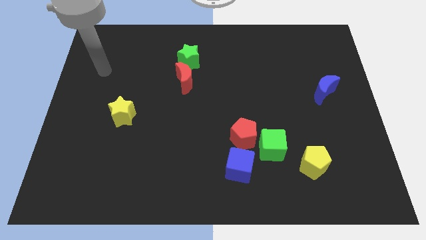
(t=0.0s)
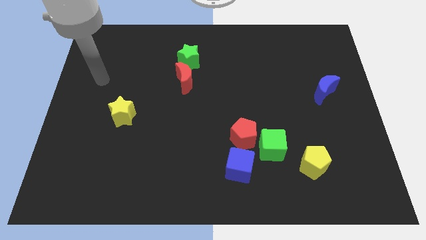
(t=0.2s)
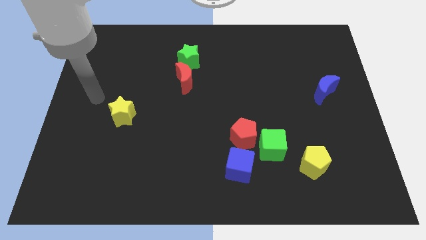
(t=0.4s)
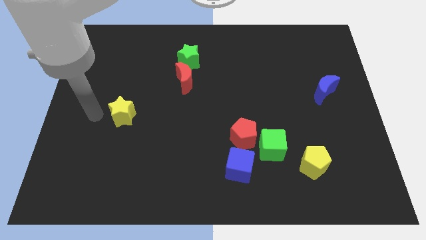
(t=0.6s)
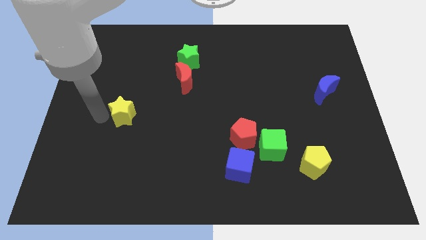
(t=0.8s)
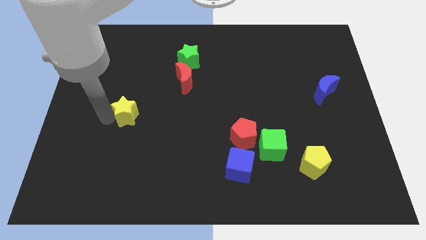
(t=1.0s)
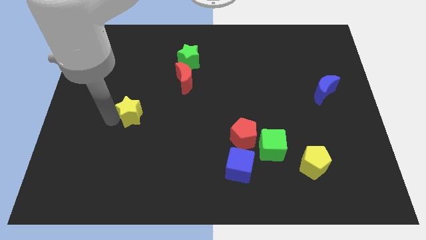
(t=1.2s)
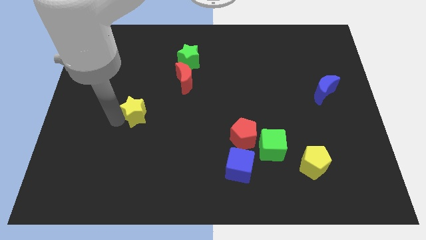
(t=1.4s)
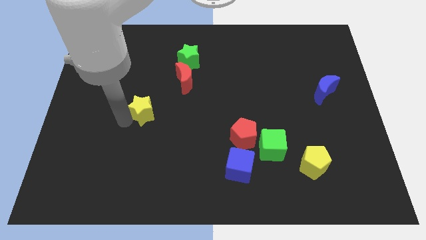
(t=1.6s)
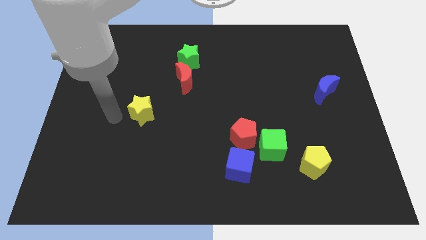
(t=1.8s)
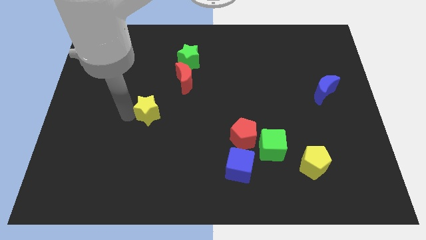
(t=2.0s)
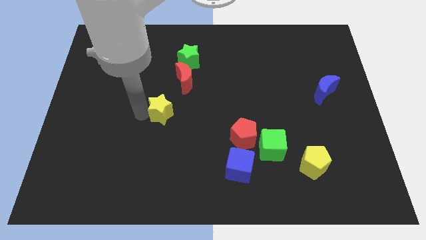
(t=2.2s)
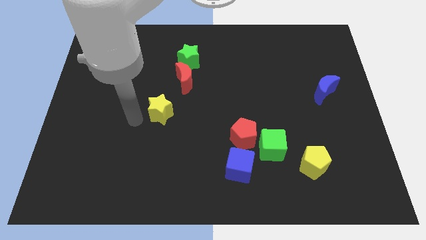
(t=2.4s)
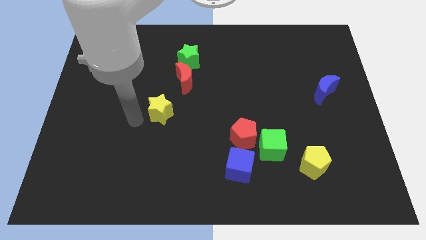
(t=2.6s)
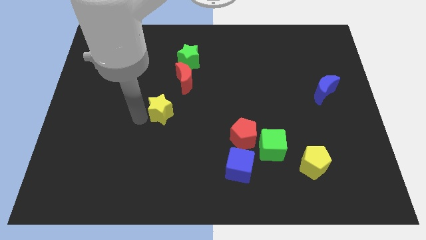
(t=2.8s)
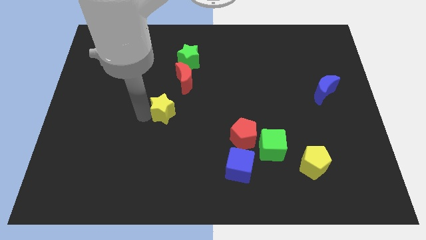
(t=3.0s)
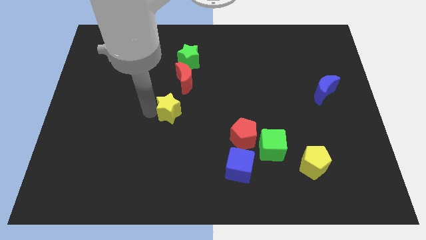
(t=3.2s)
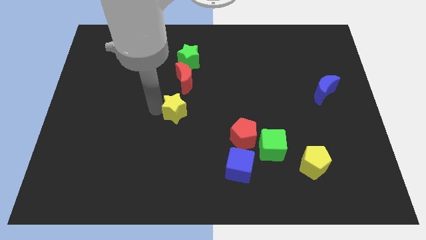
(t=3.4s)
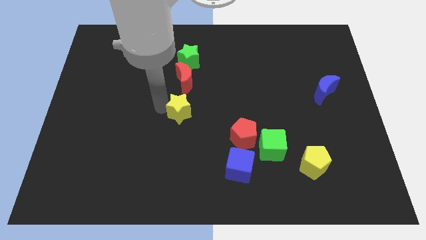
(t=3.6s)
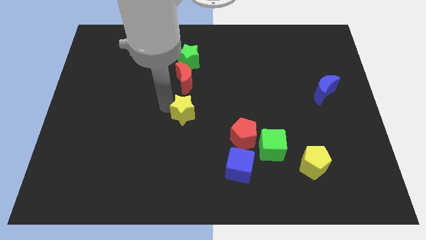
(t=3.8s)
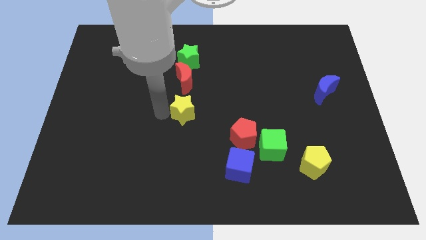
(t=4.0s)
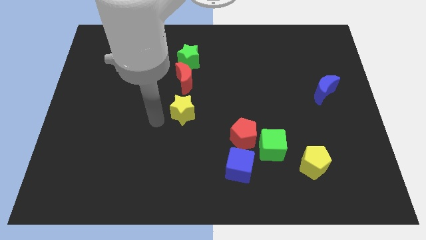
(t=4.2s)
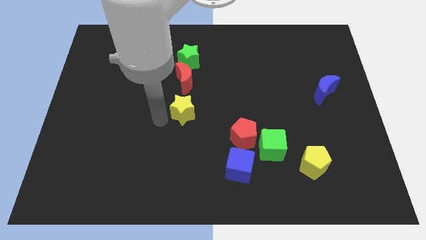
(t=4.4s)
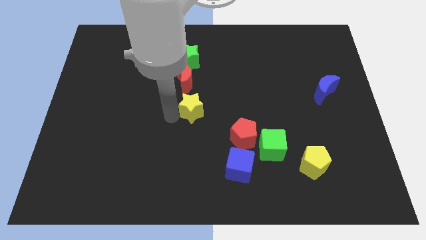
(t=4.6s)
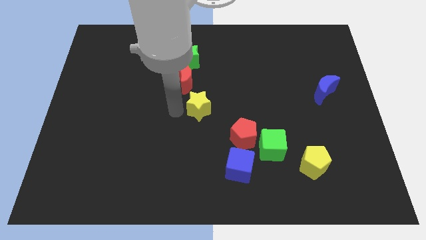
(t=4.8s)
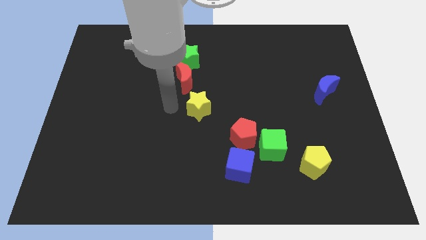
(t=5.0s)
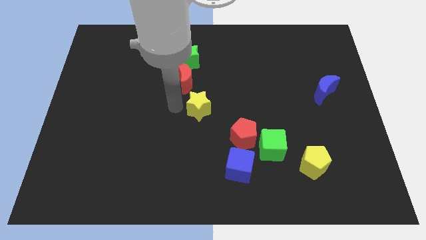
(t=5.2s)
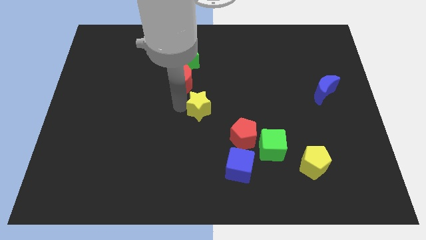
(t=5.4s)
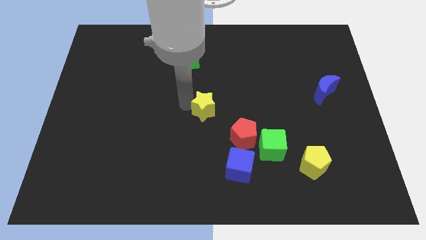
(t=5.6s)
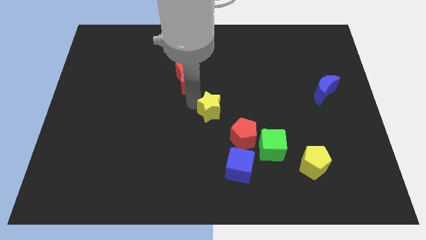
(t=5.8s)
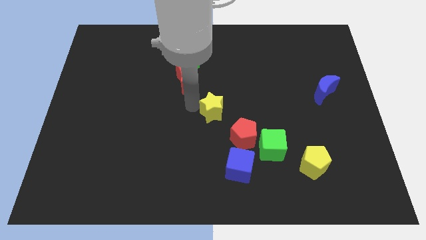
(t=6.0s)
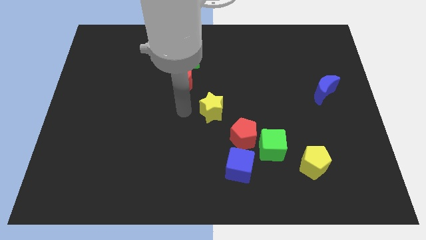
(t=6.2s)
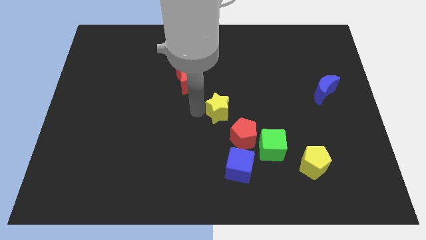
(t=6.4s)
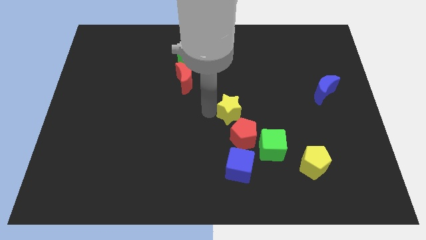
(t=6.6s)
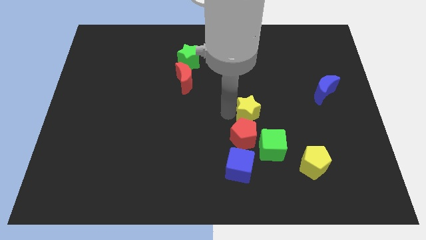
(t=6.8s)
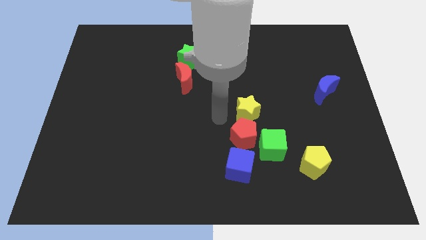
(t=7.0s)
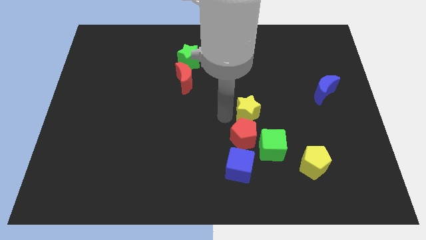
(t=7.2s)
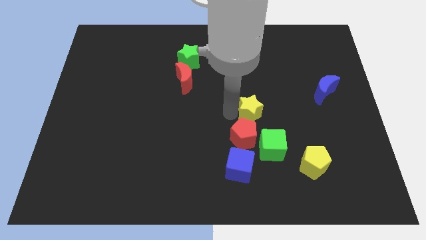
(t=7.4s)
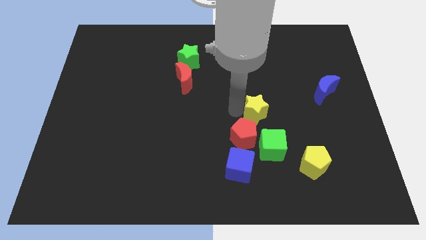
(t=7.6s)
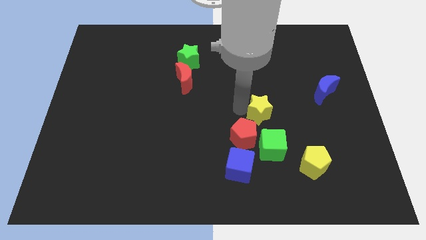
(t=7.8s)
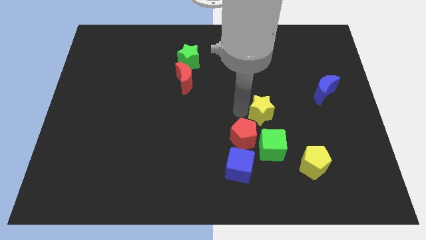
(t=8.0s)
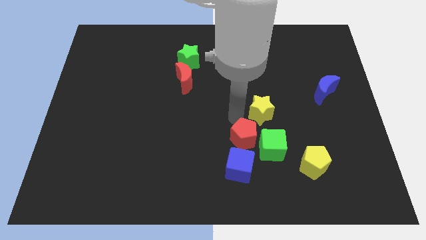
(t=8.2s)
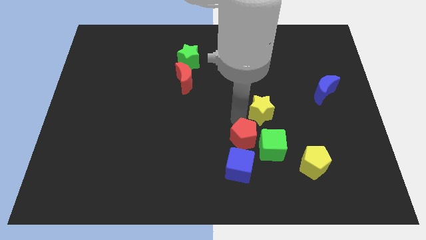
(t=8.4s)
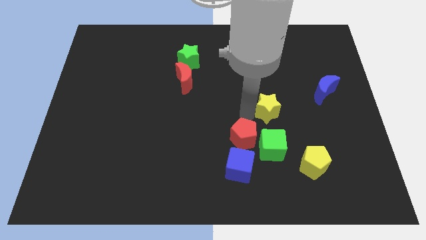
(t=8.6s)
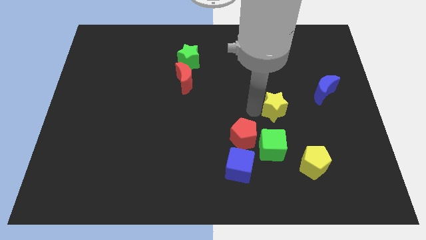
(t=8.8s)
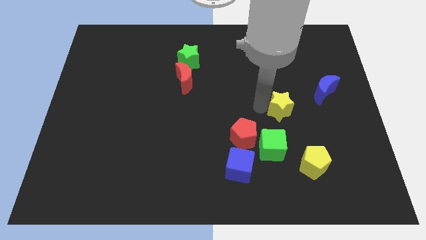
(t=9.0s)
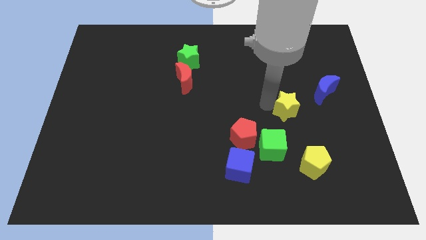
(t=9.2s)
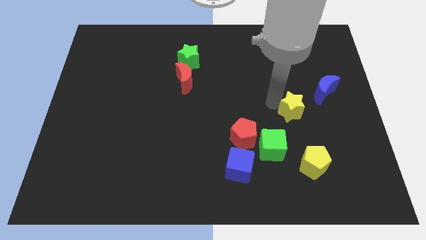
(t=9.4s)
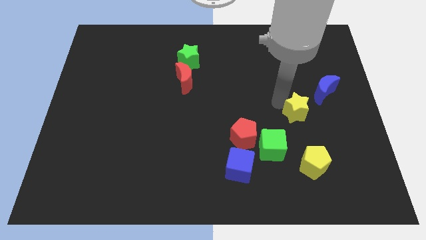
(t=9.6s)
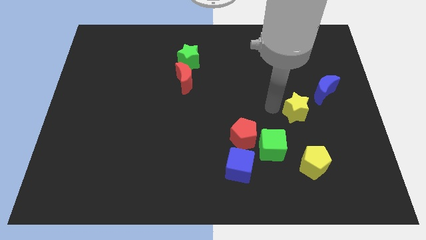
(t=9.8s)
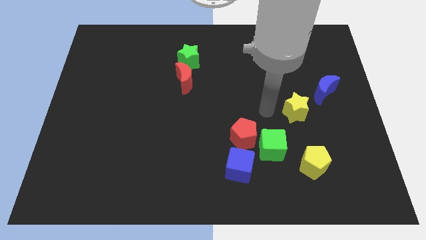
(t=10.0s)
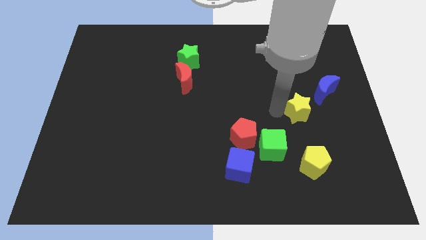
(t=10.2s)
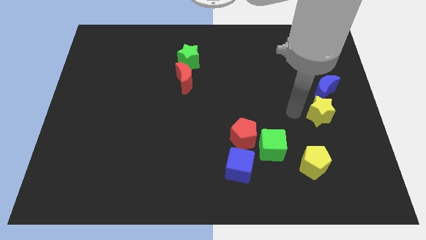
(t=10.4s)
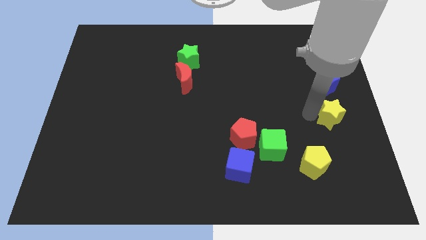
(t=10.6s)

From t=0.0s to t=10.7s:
put the yellow star to the center right

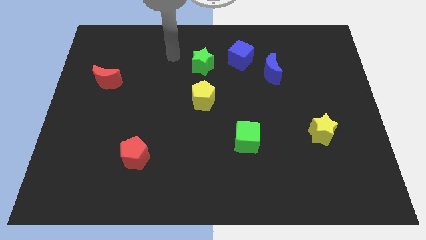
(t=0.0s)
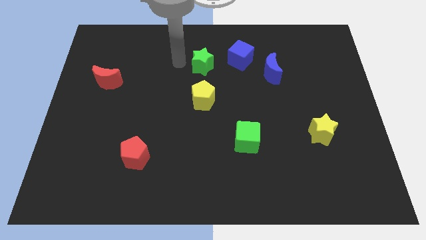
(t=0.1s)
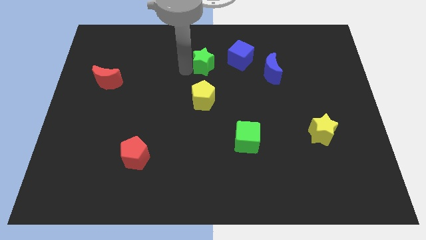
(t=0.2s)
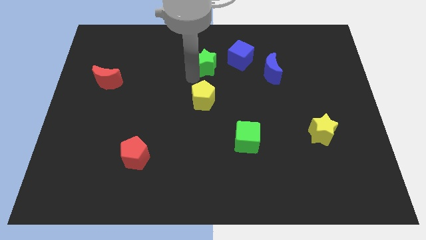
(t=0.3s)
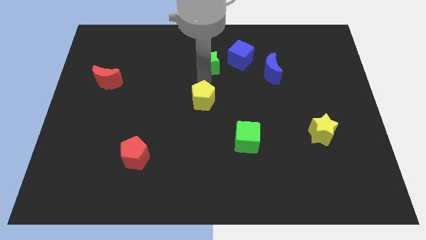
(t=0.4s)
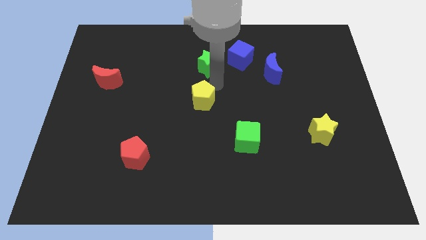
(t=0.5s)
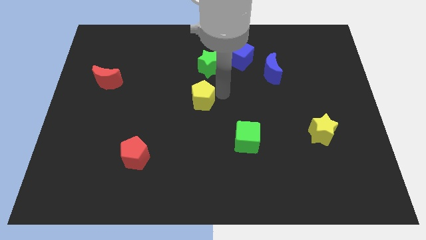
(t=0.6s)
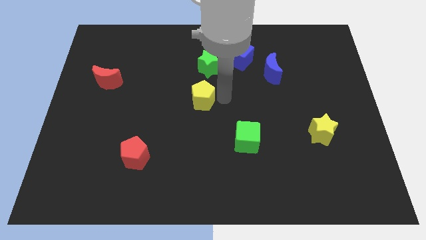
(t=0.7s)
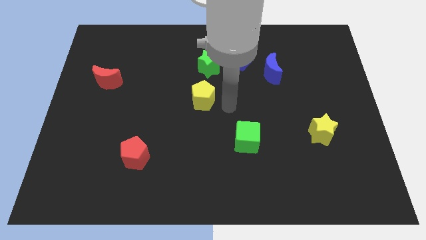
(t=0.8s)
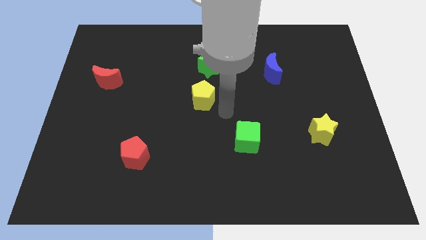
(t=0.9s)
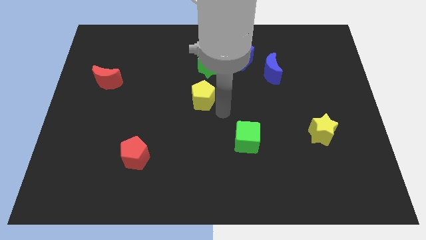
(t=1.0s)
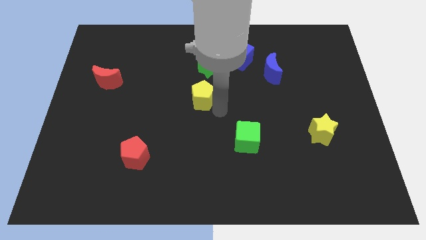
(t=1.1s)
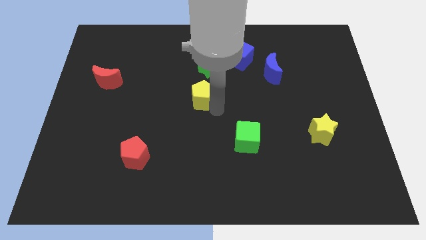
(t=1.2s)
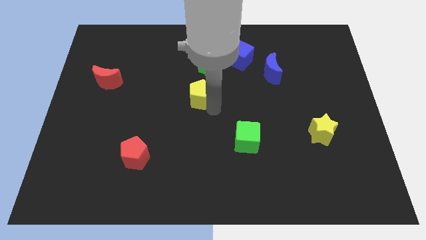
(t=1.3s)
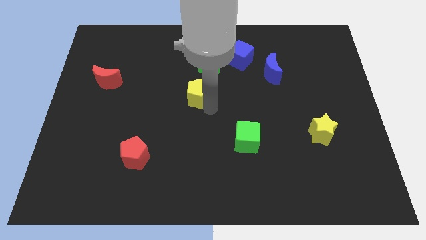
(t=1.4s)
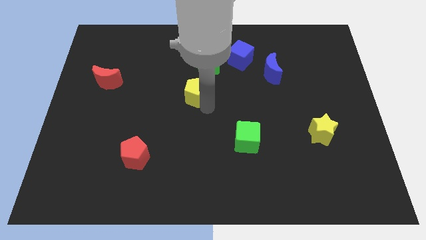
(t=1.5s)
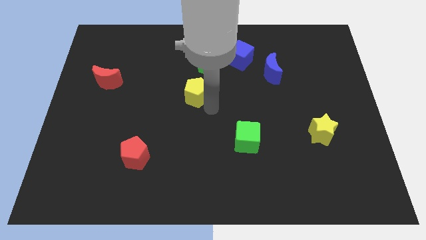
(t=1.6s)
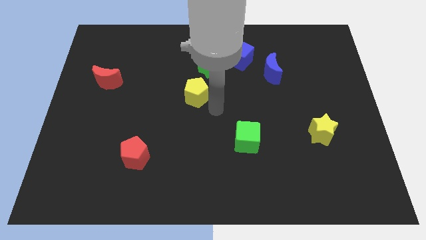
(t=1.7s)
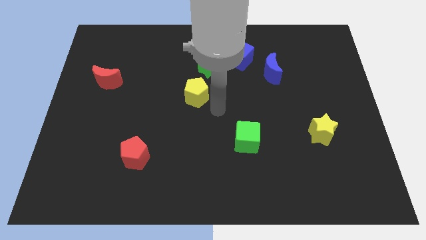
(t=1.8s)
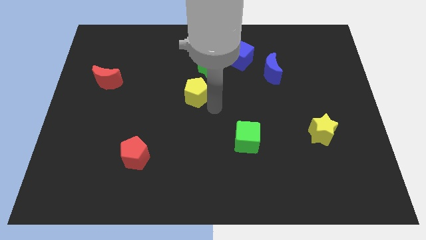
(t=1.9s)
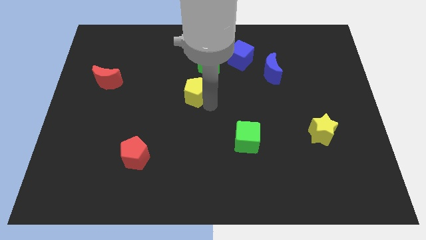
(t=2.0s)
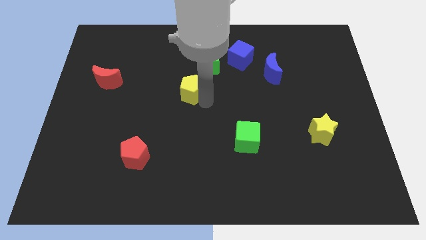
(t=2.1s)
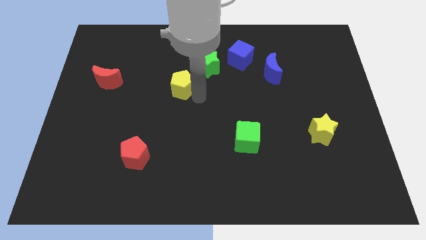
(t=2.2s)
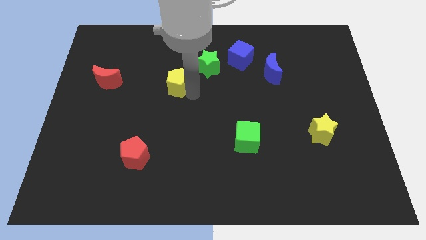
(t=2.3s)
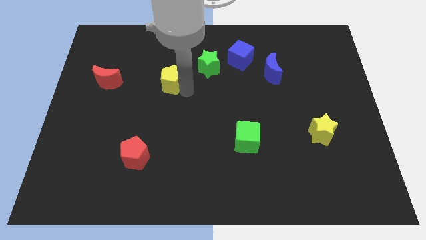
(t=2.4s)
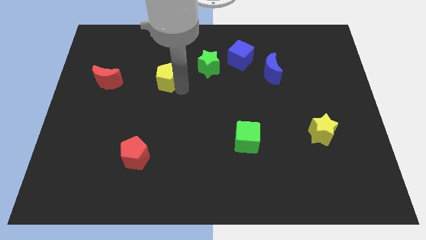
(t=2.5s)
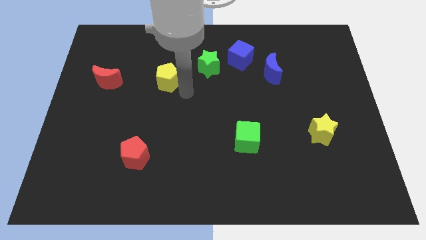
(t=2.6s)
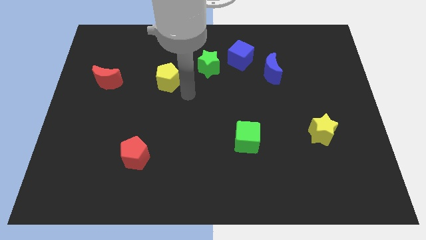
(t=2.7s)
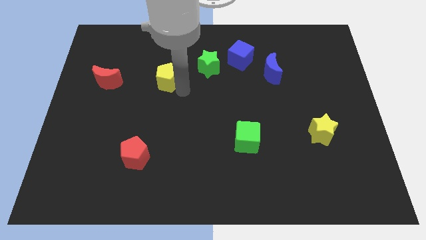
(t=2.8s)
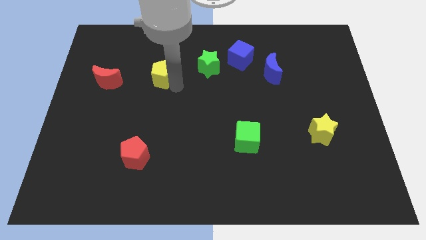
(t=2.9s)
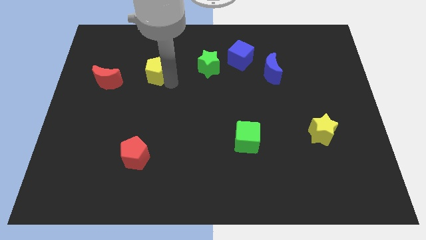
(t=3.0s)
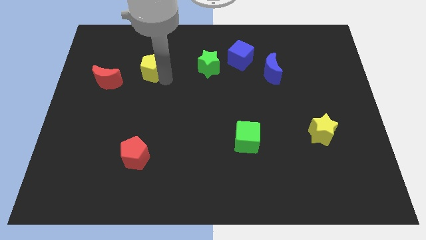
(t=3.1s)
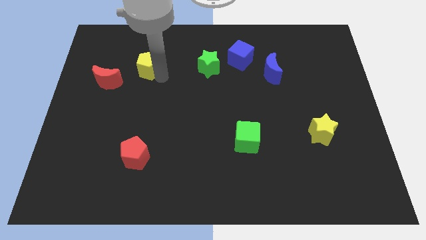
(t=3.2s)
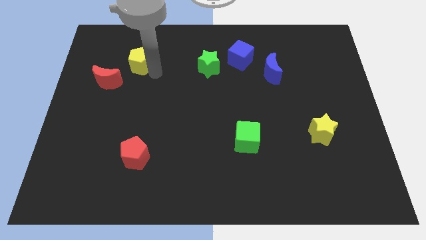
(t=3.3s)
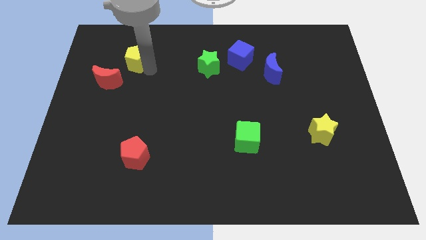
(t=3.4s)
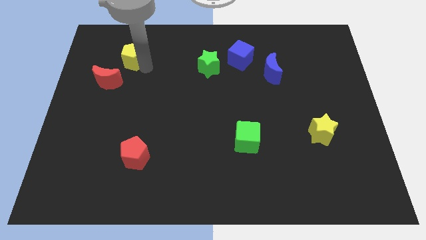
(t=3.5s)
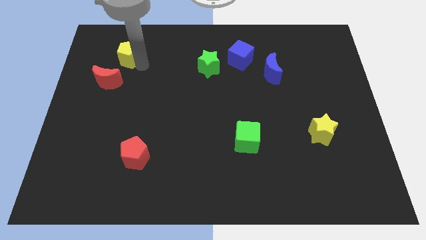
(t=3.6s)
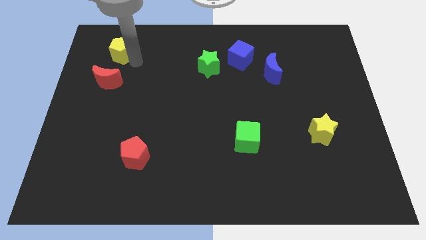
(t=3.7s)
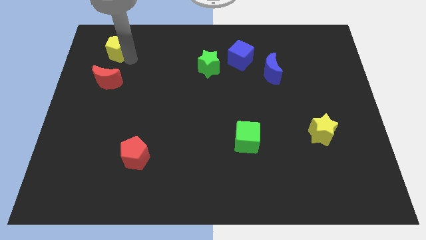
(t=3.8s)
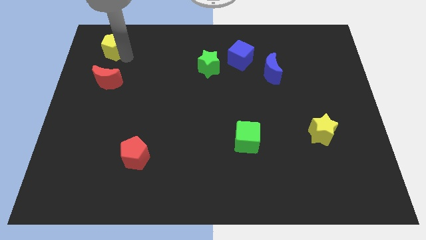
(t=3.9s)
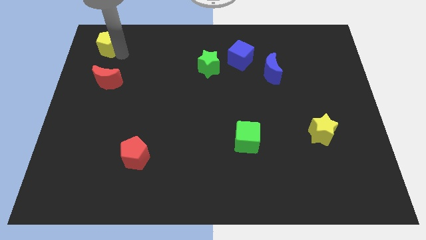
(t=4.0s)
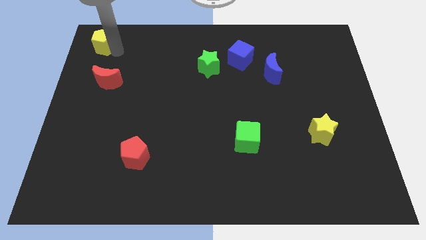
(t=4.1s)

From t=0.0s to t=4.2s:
slide the yellow pentagon to the top left corner
